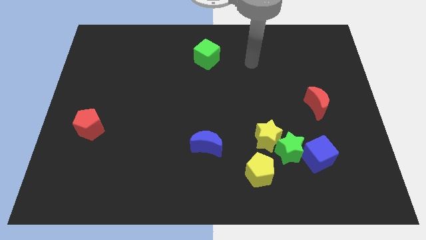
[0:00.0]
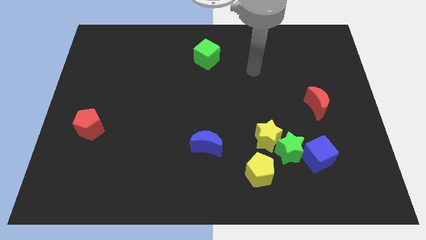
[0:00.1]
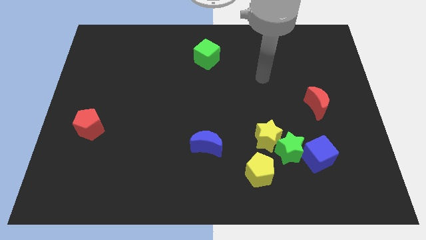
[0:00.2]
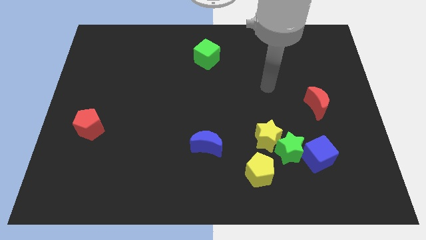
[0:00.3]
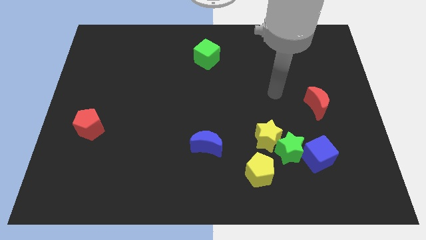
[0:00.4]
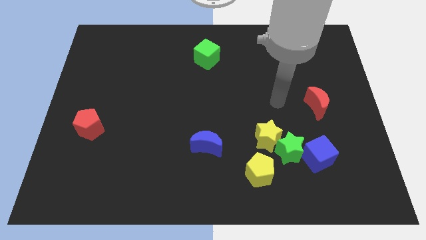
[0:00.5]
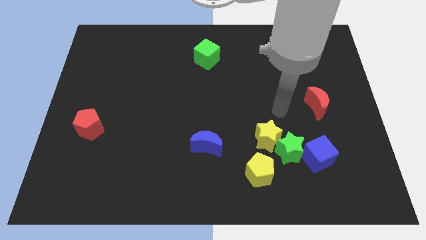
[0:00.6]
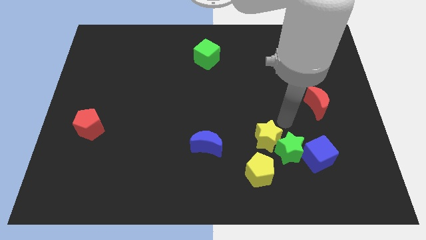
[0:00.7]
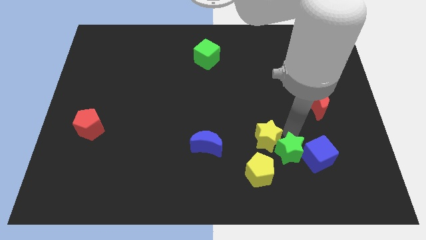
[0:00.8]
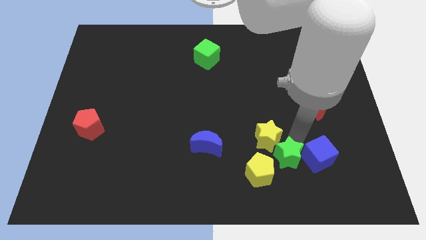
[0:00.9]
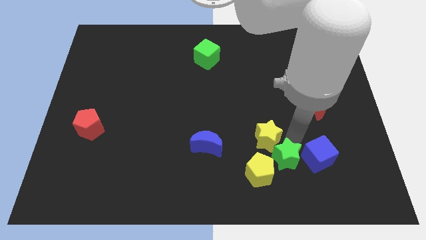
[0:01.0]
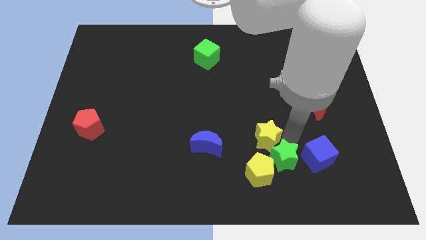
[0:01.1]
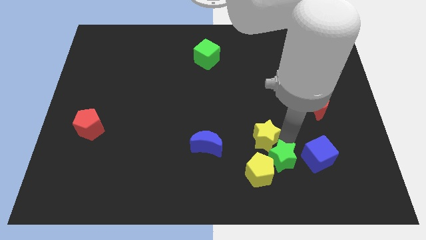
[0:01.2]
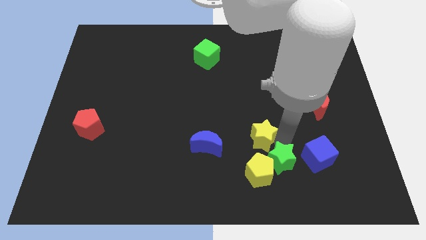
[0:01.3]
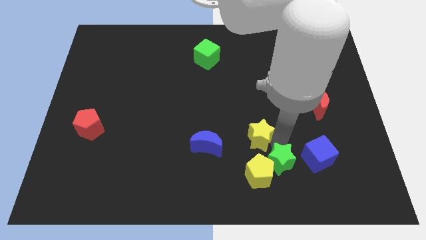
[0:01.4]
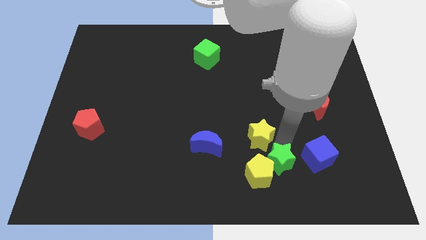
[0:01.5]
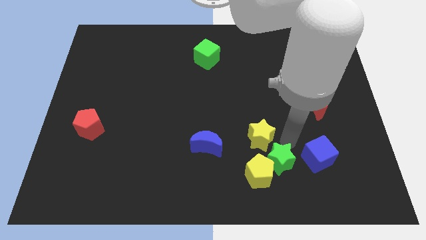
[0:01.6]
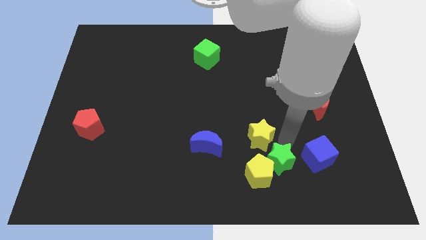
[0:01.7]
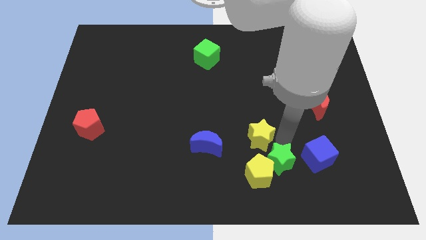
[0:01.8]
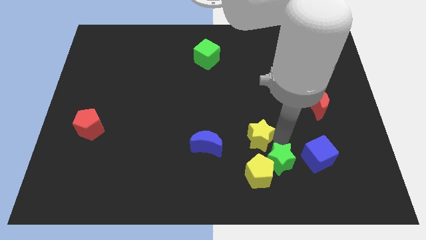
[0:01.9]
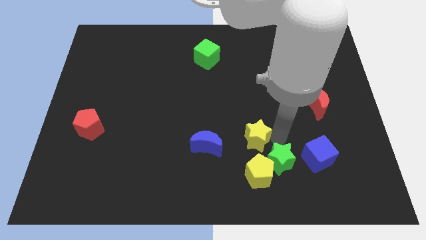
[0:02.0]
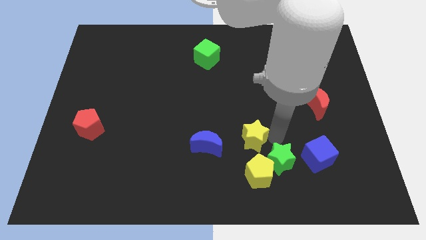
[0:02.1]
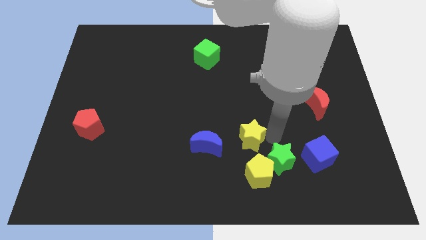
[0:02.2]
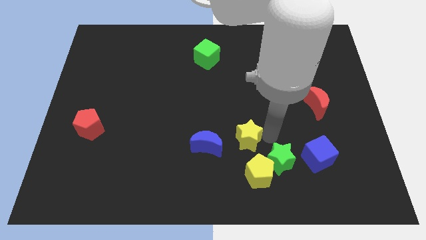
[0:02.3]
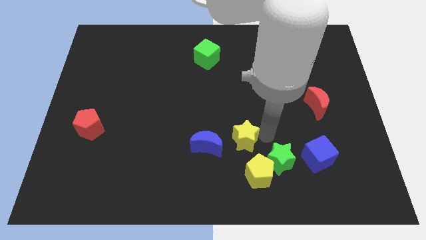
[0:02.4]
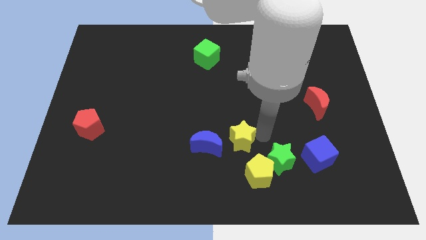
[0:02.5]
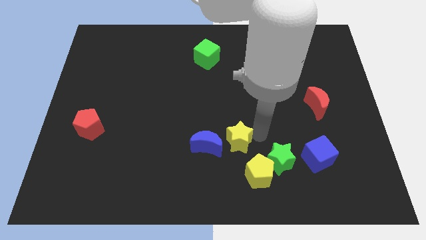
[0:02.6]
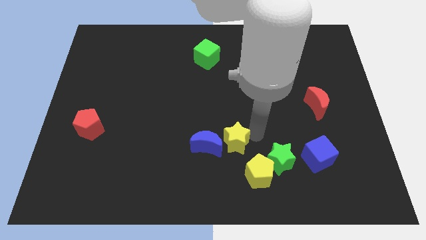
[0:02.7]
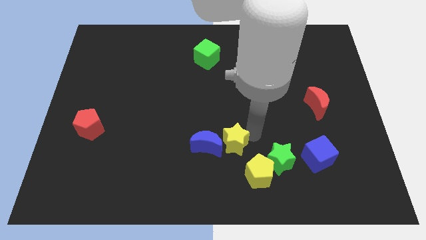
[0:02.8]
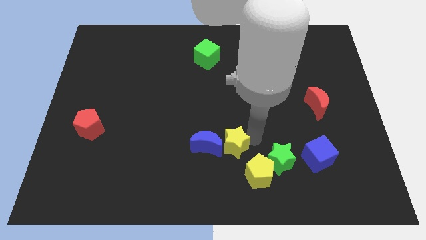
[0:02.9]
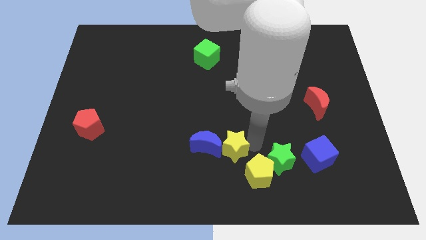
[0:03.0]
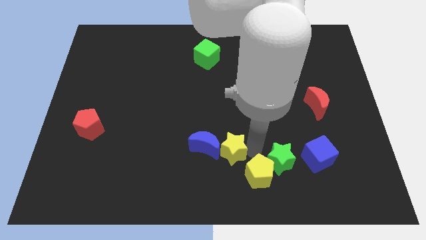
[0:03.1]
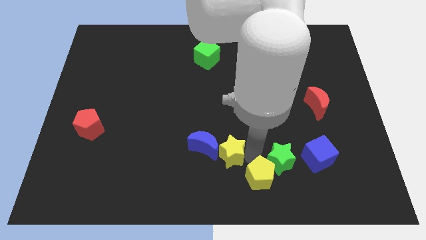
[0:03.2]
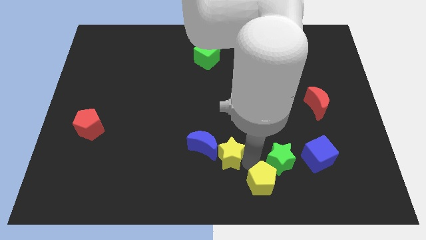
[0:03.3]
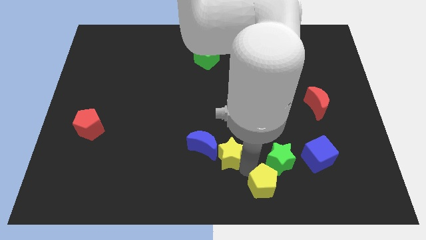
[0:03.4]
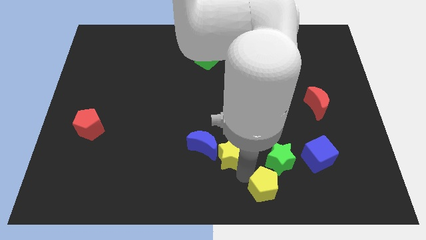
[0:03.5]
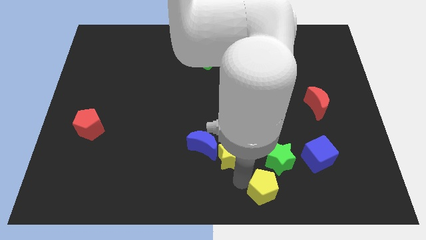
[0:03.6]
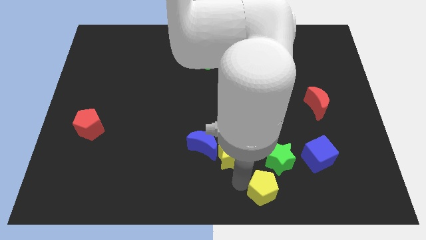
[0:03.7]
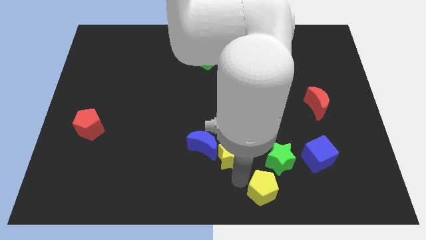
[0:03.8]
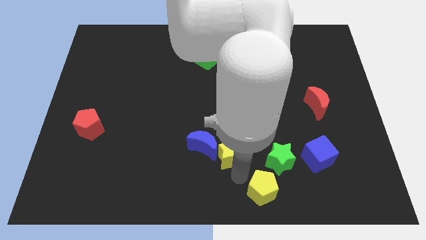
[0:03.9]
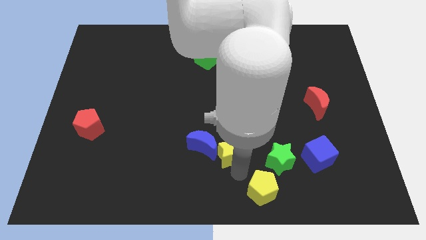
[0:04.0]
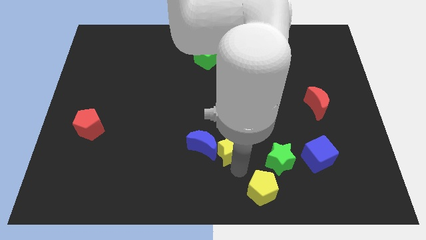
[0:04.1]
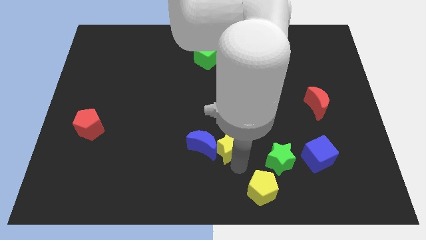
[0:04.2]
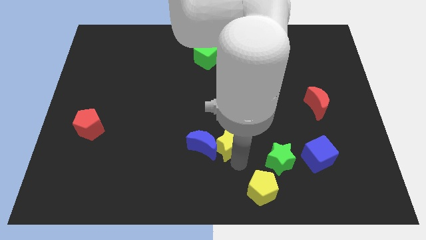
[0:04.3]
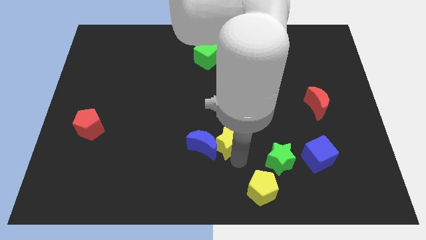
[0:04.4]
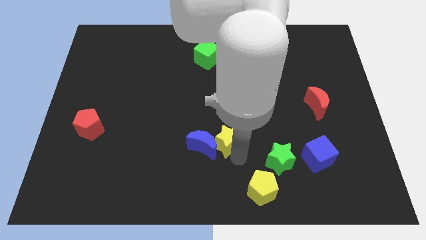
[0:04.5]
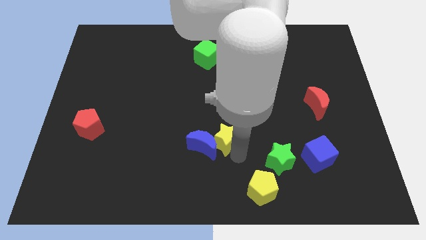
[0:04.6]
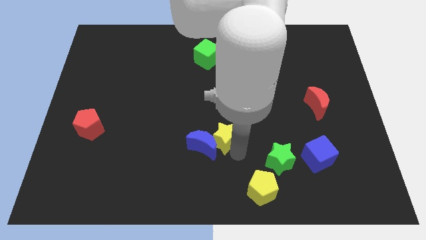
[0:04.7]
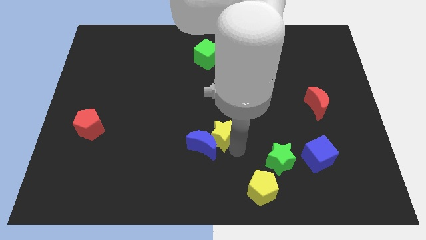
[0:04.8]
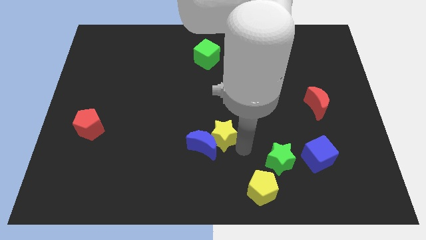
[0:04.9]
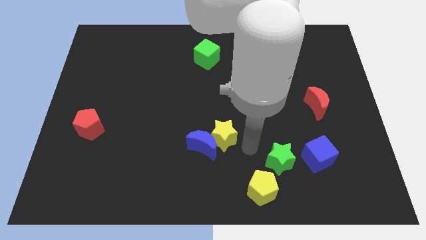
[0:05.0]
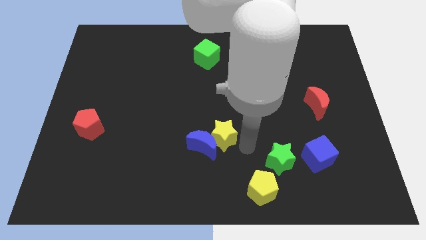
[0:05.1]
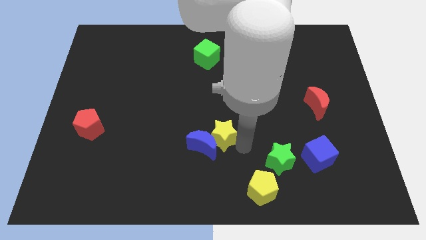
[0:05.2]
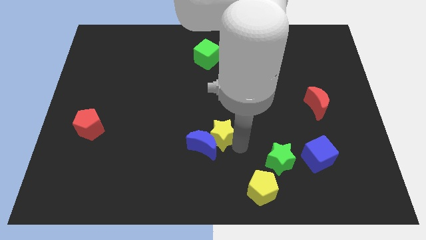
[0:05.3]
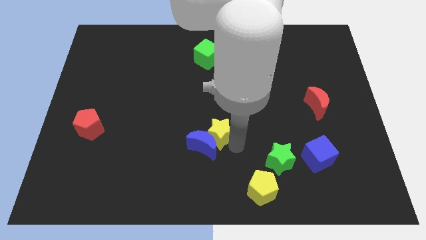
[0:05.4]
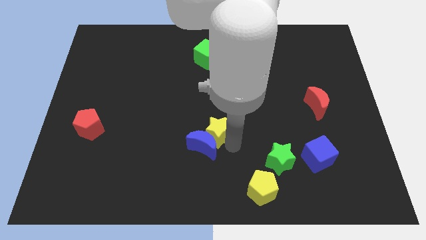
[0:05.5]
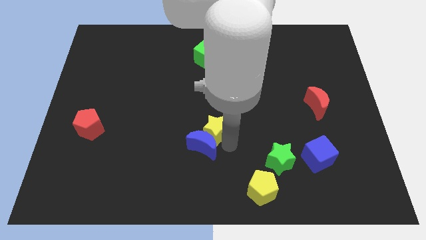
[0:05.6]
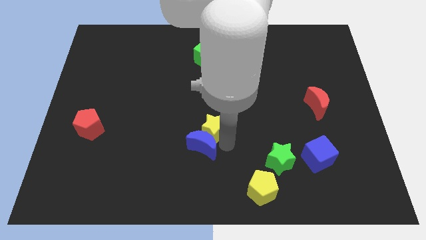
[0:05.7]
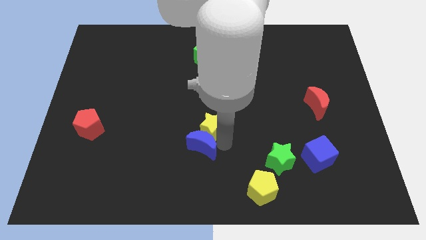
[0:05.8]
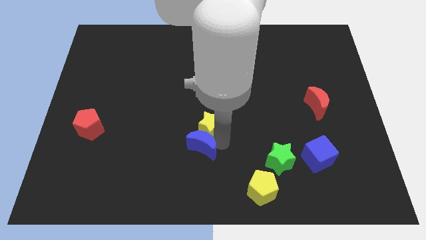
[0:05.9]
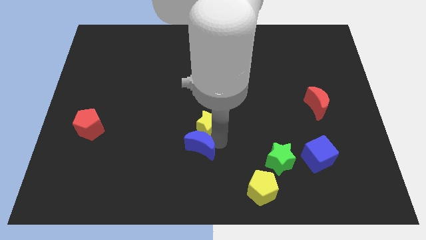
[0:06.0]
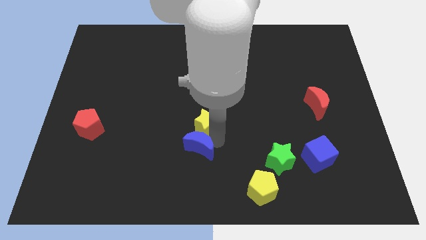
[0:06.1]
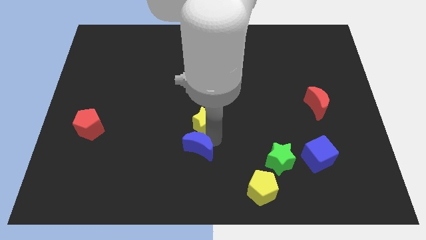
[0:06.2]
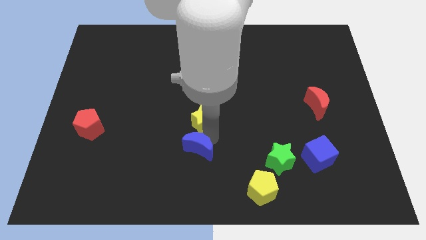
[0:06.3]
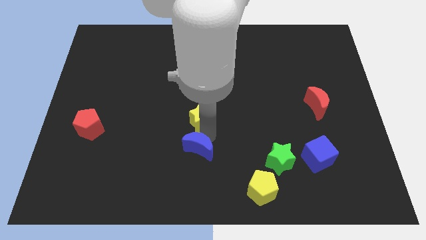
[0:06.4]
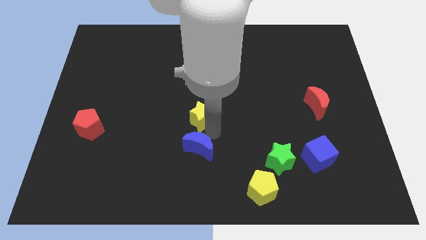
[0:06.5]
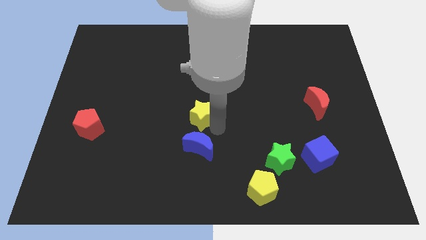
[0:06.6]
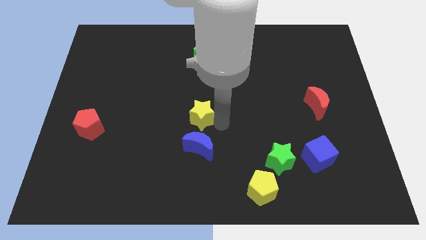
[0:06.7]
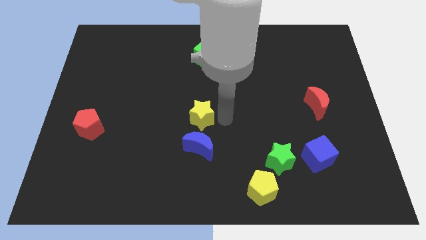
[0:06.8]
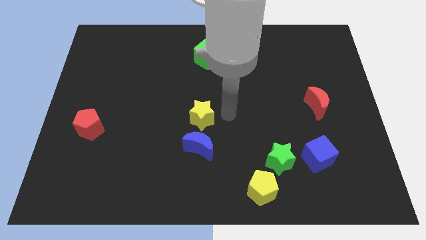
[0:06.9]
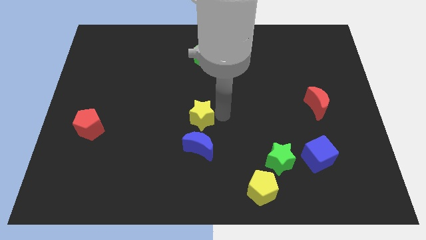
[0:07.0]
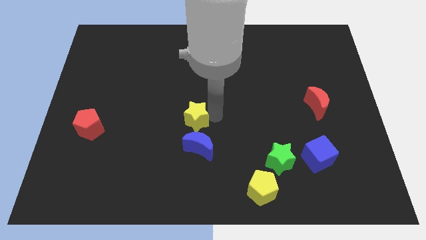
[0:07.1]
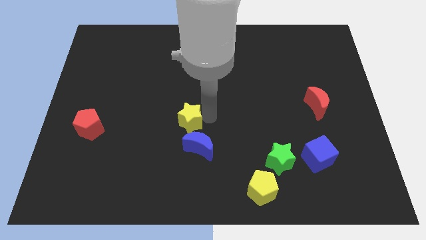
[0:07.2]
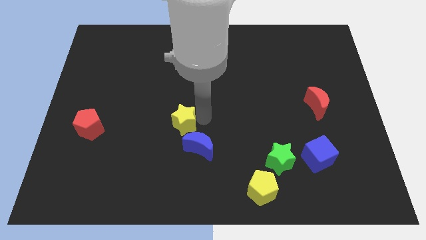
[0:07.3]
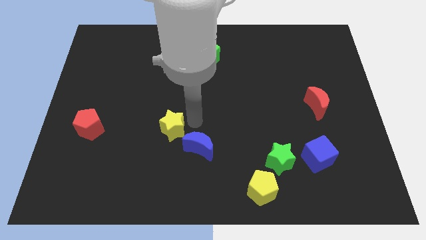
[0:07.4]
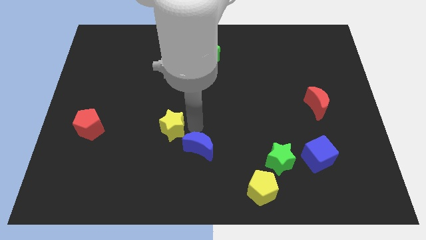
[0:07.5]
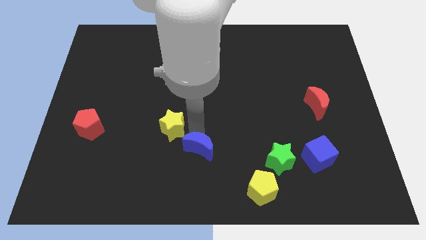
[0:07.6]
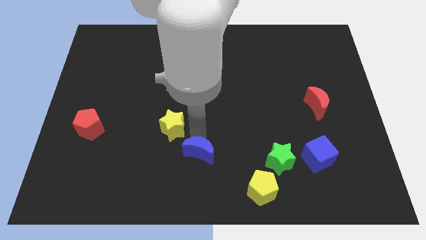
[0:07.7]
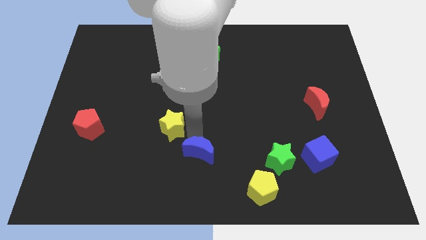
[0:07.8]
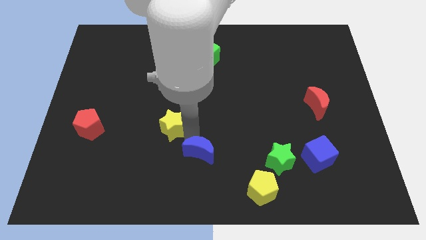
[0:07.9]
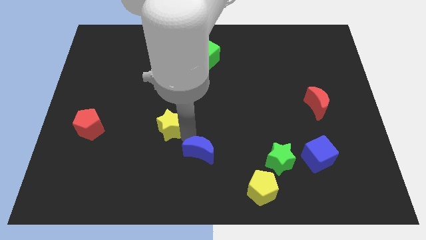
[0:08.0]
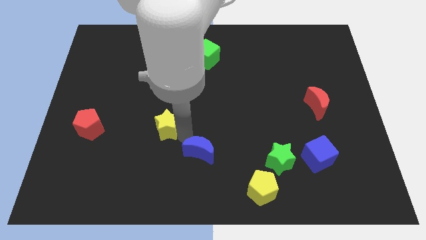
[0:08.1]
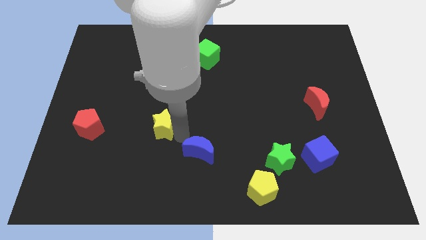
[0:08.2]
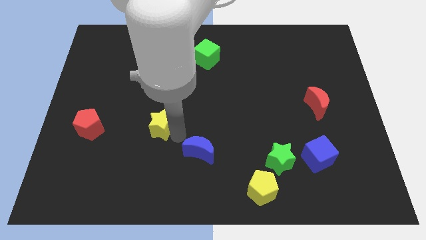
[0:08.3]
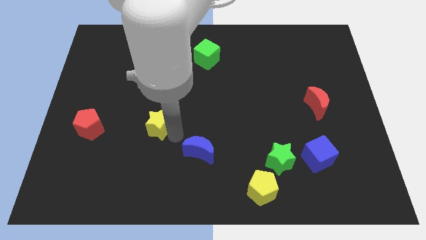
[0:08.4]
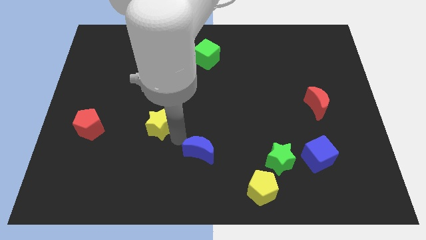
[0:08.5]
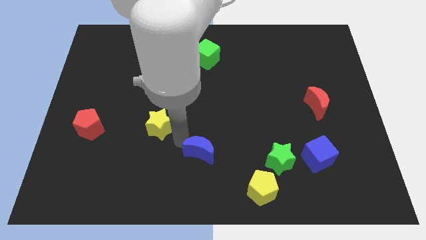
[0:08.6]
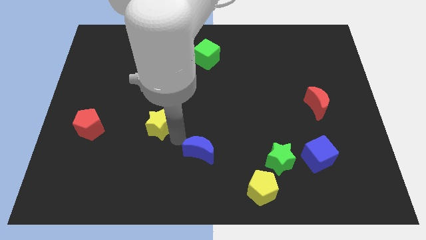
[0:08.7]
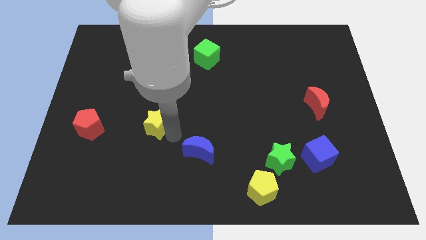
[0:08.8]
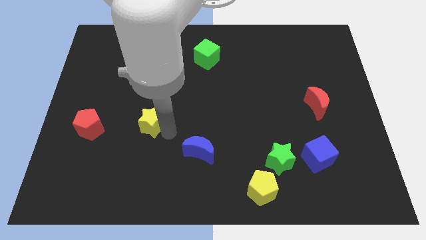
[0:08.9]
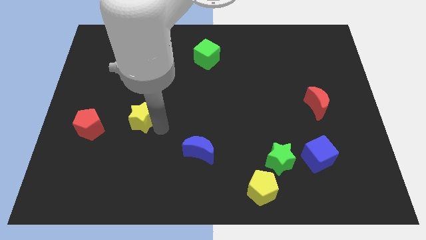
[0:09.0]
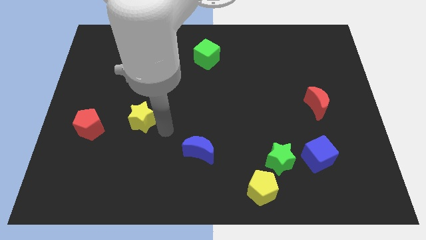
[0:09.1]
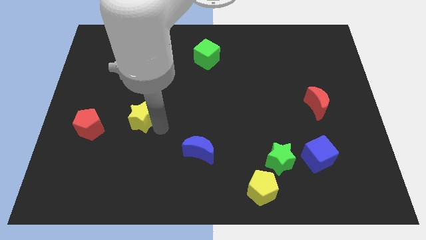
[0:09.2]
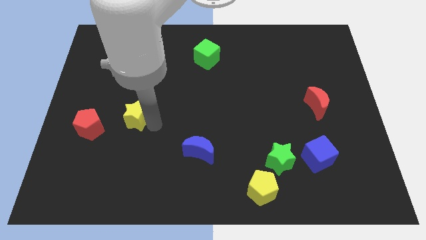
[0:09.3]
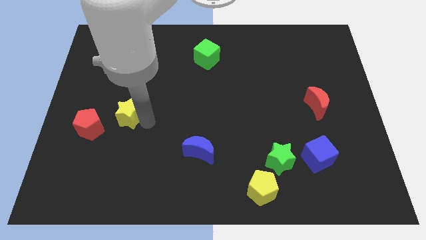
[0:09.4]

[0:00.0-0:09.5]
push the yellow star to the top right of the red pentagon
